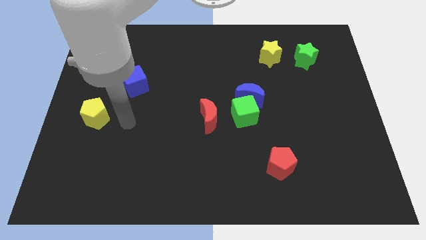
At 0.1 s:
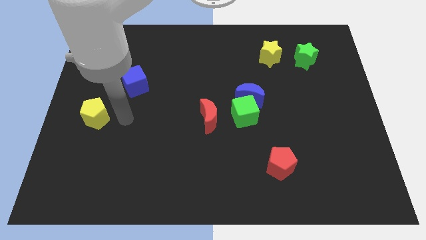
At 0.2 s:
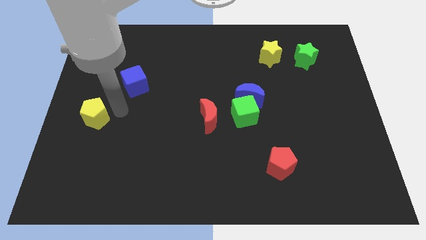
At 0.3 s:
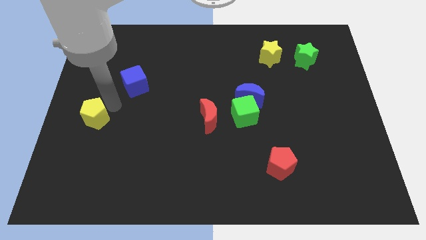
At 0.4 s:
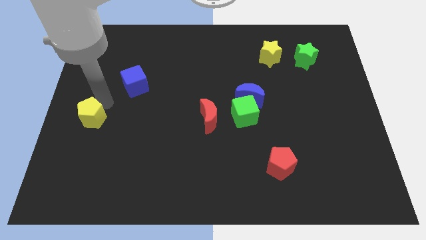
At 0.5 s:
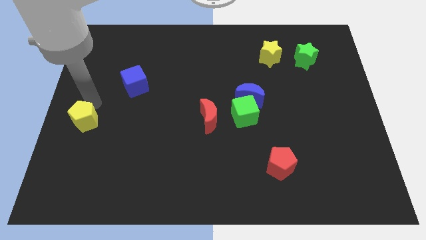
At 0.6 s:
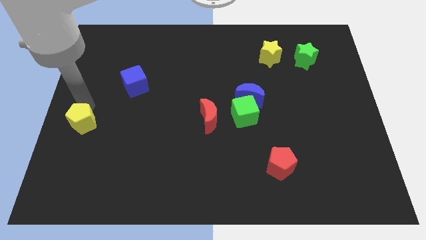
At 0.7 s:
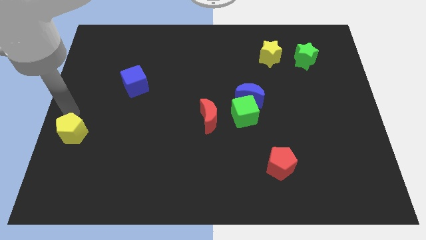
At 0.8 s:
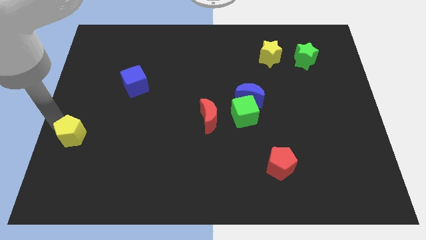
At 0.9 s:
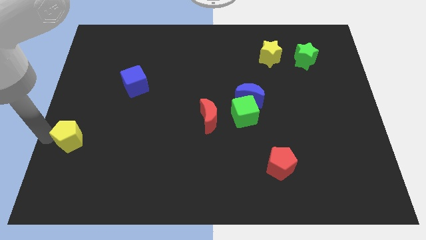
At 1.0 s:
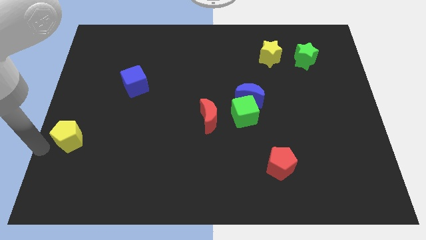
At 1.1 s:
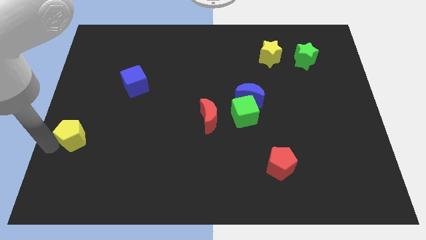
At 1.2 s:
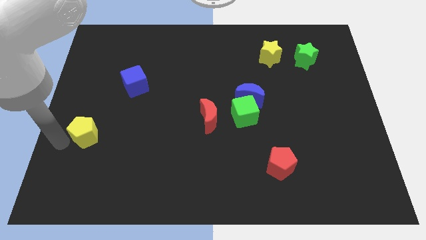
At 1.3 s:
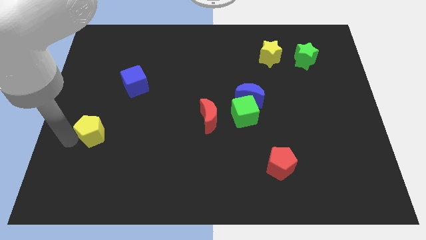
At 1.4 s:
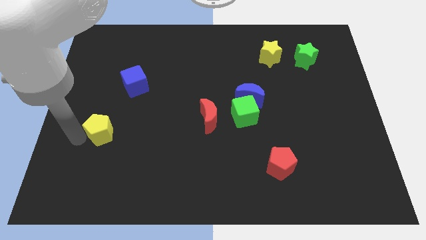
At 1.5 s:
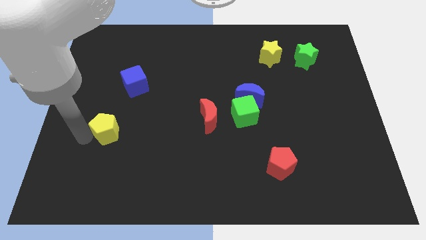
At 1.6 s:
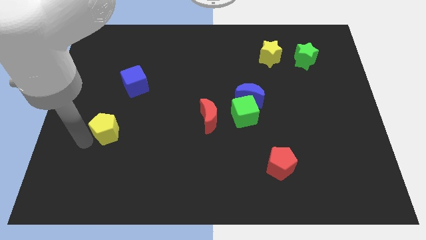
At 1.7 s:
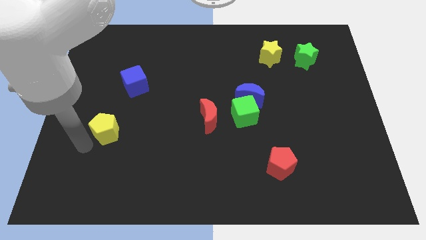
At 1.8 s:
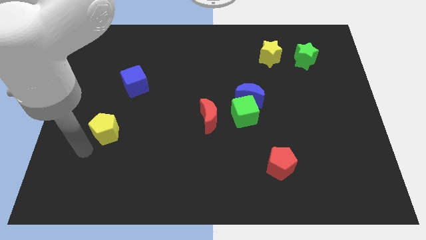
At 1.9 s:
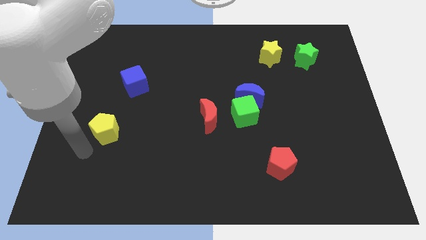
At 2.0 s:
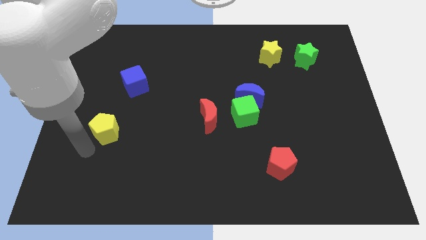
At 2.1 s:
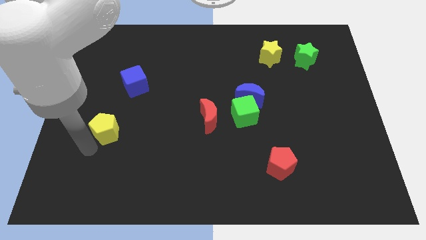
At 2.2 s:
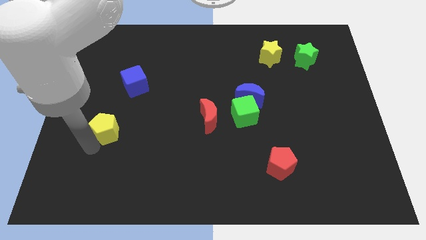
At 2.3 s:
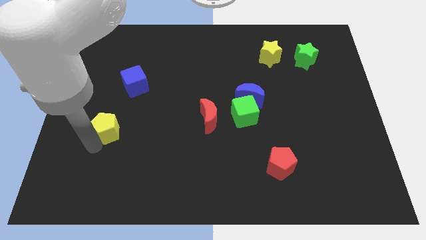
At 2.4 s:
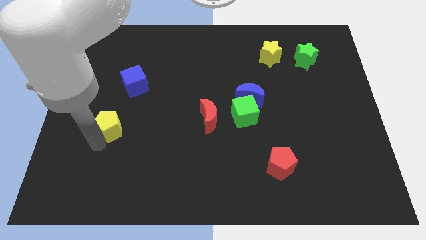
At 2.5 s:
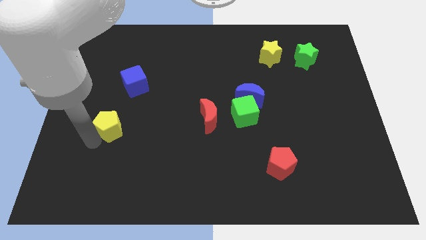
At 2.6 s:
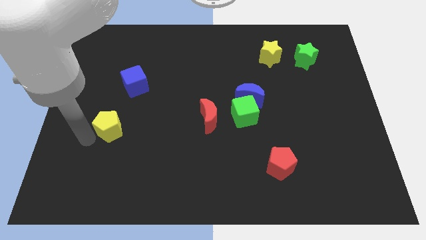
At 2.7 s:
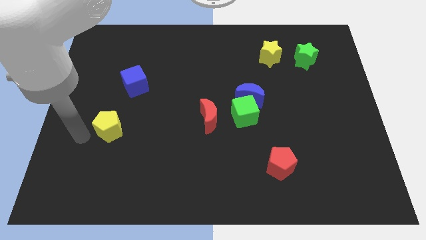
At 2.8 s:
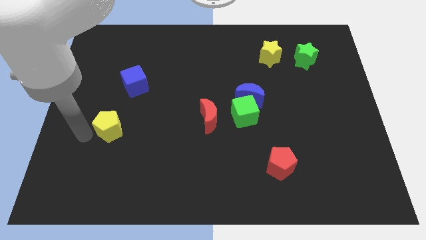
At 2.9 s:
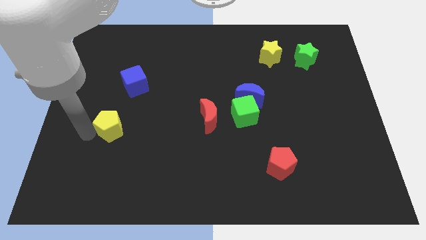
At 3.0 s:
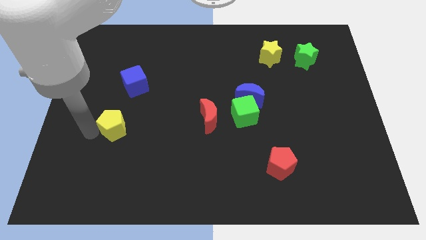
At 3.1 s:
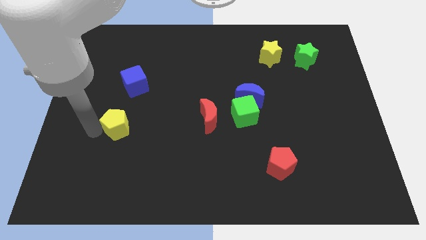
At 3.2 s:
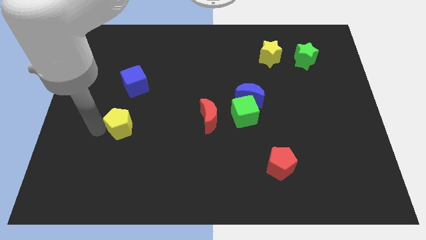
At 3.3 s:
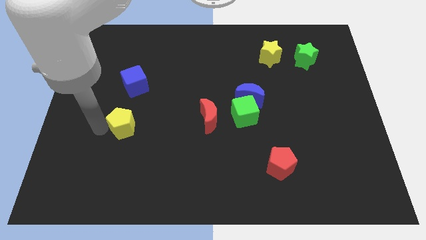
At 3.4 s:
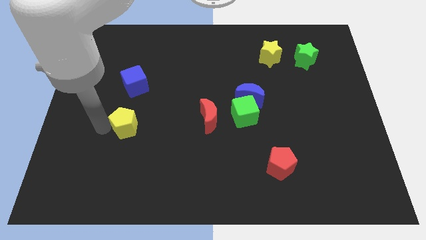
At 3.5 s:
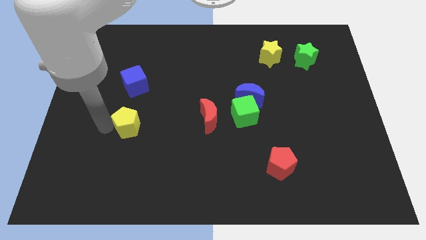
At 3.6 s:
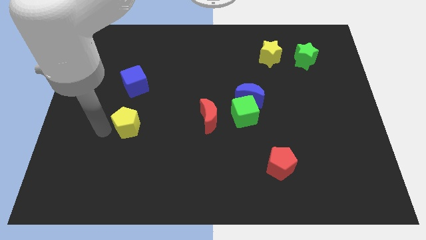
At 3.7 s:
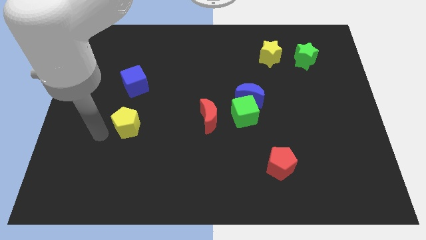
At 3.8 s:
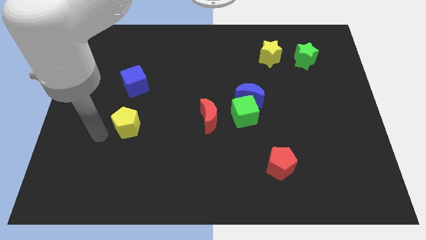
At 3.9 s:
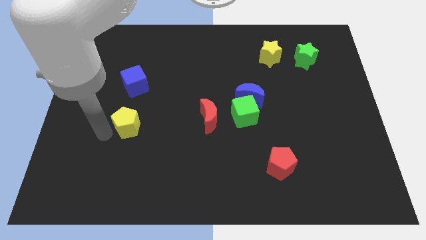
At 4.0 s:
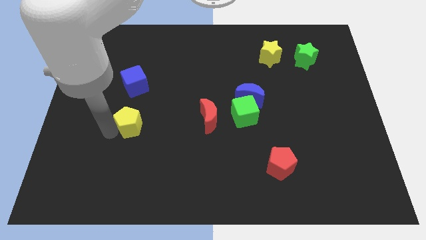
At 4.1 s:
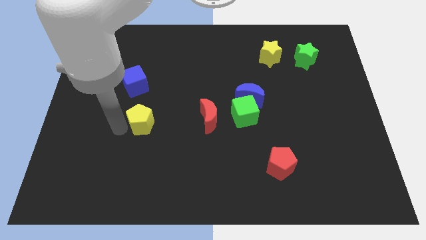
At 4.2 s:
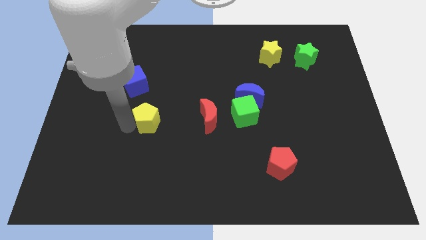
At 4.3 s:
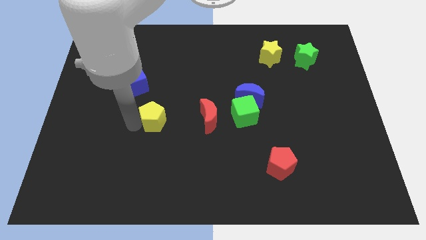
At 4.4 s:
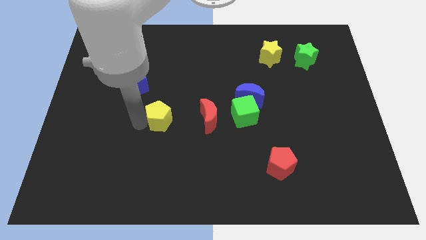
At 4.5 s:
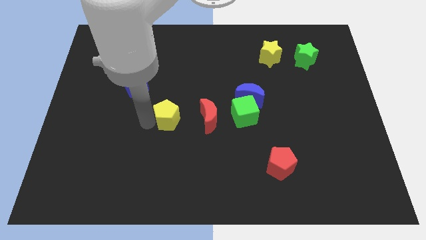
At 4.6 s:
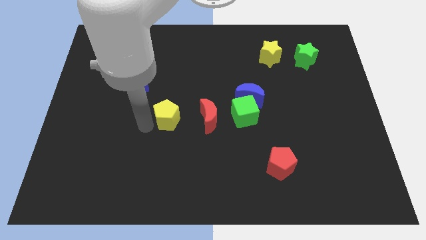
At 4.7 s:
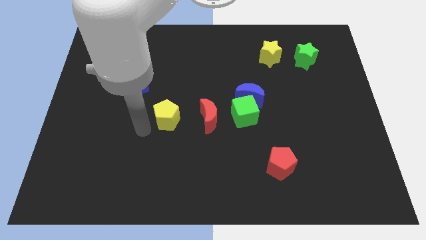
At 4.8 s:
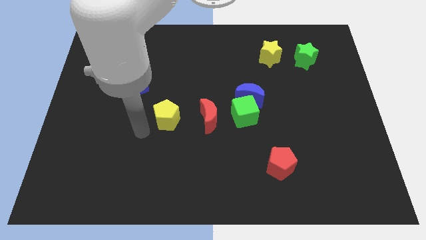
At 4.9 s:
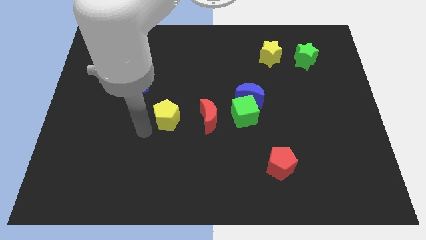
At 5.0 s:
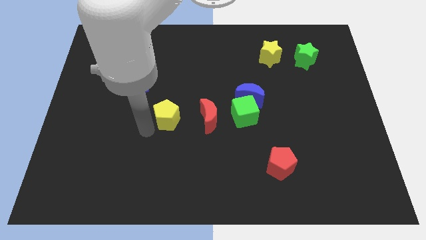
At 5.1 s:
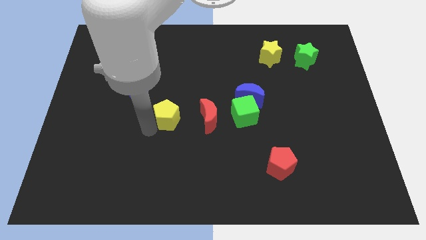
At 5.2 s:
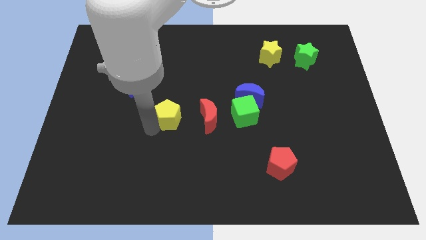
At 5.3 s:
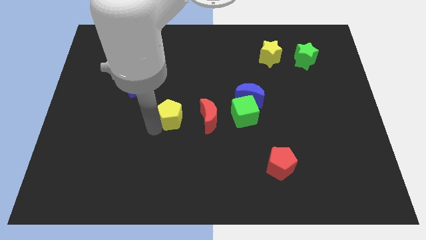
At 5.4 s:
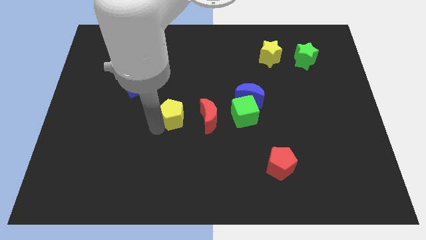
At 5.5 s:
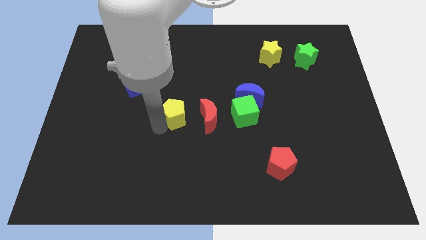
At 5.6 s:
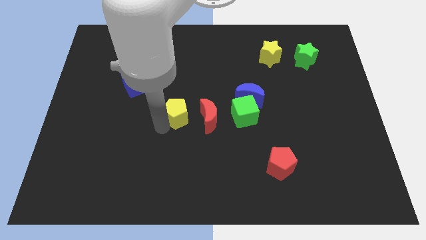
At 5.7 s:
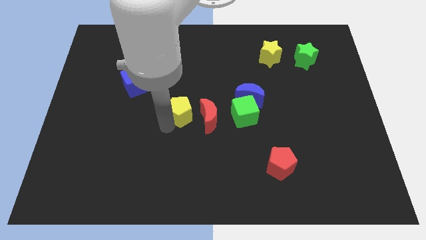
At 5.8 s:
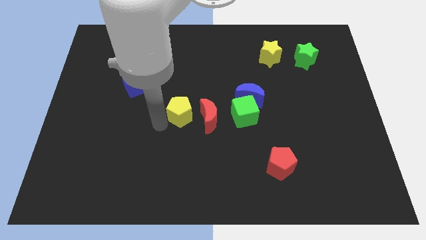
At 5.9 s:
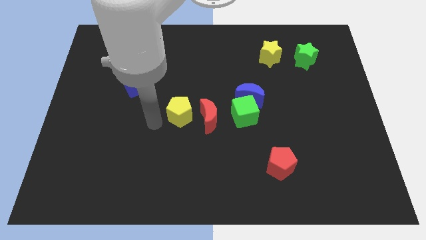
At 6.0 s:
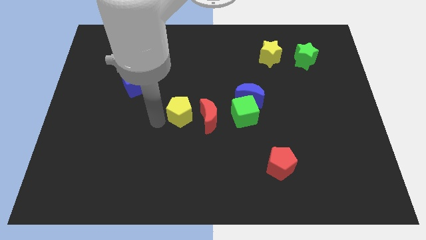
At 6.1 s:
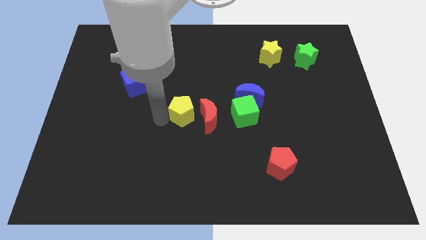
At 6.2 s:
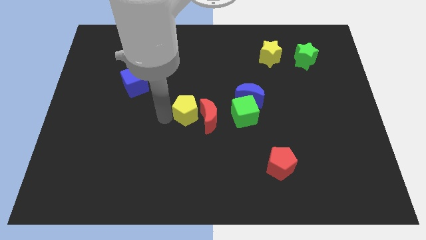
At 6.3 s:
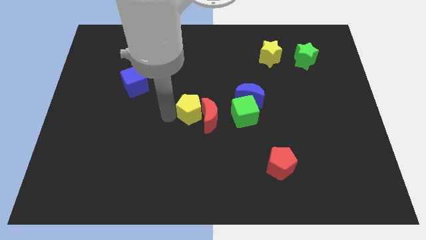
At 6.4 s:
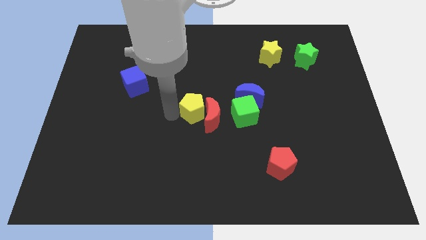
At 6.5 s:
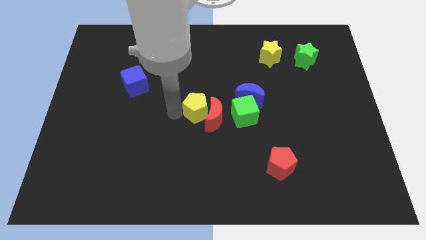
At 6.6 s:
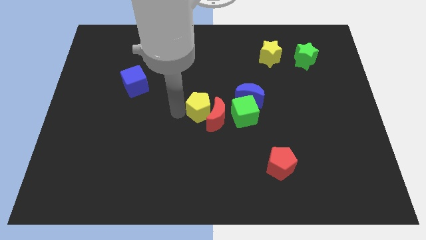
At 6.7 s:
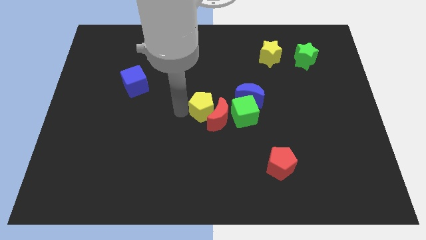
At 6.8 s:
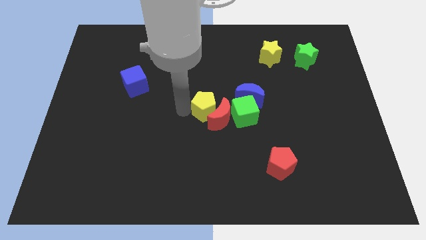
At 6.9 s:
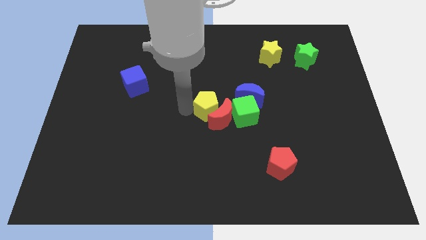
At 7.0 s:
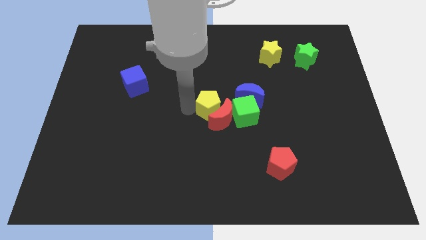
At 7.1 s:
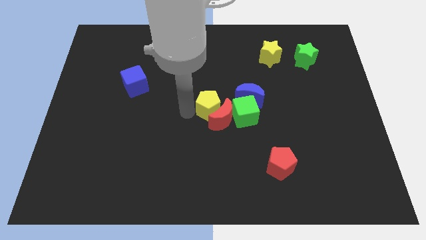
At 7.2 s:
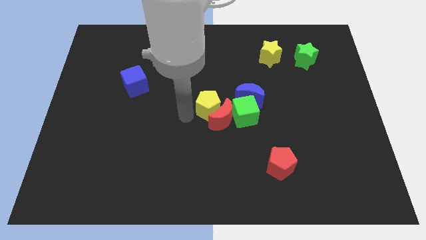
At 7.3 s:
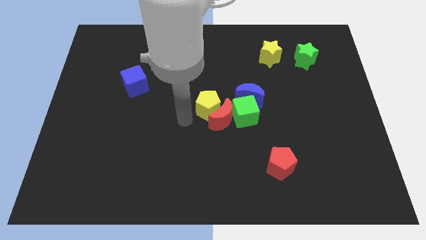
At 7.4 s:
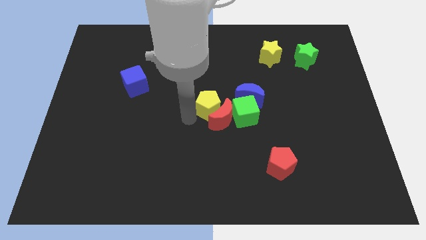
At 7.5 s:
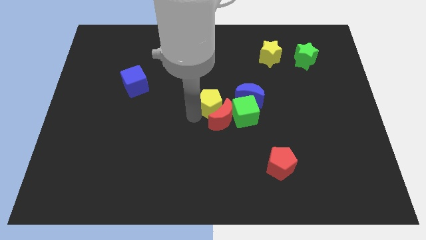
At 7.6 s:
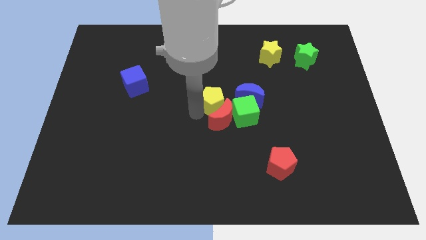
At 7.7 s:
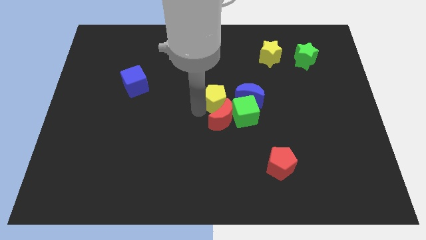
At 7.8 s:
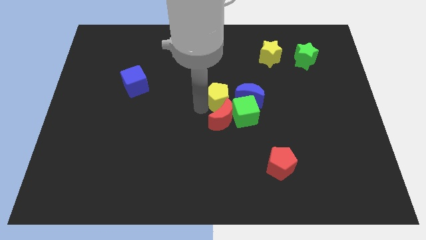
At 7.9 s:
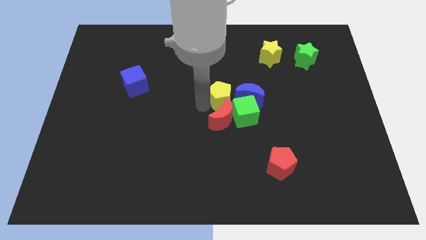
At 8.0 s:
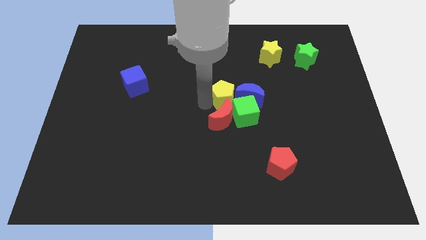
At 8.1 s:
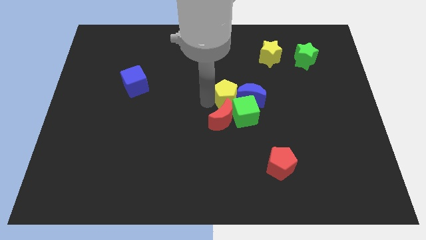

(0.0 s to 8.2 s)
push the yellow pentagon close to the blue moon
